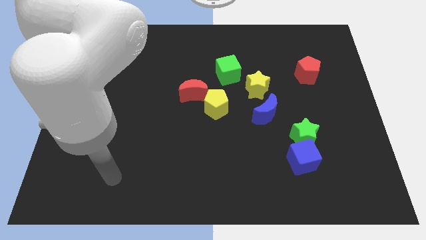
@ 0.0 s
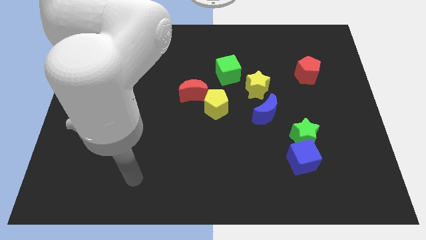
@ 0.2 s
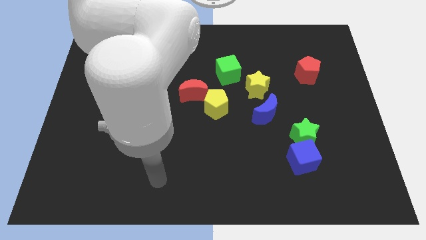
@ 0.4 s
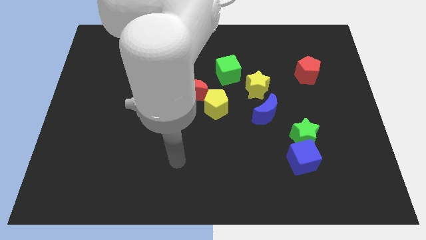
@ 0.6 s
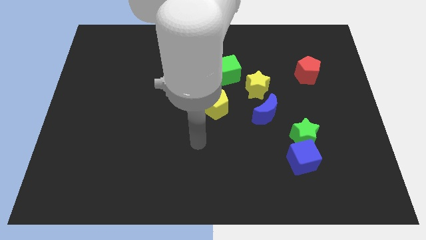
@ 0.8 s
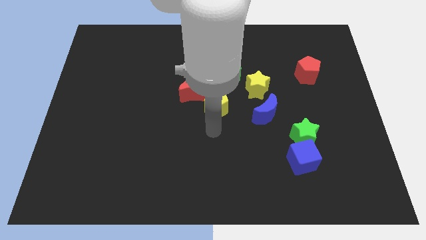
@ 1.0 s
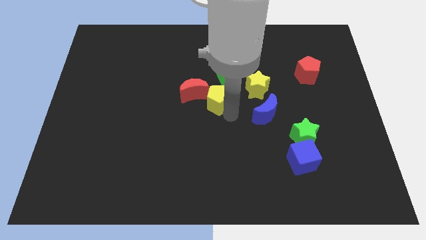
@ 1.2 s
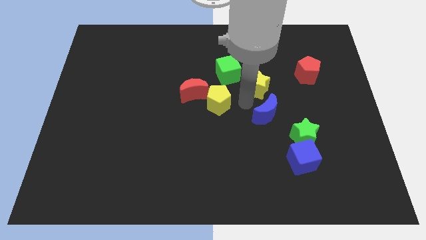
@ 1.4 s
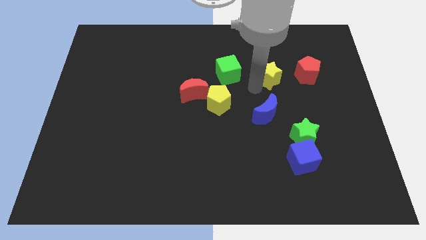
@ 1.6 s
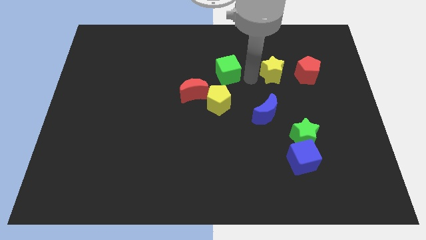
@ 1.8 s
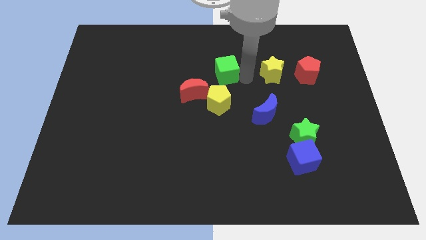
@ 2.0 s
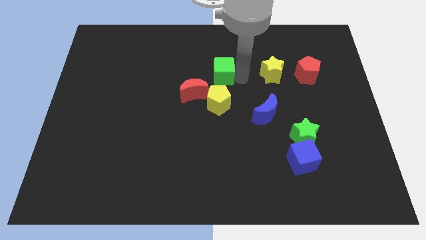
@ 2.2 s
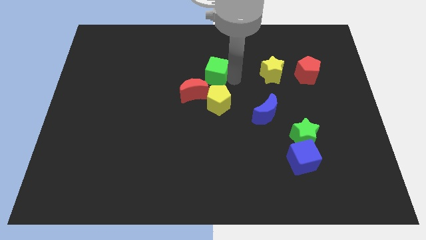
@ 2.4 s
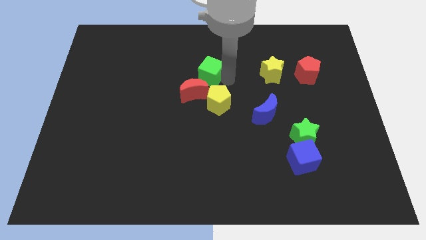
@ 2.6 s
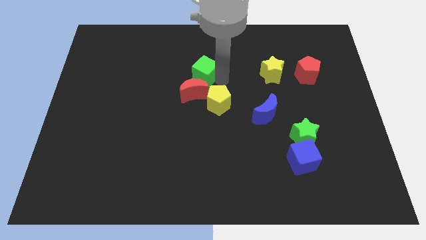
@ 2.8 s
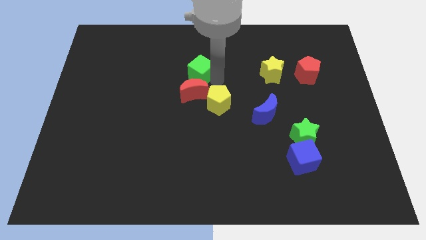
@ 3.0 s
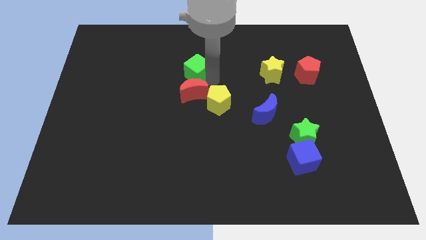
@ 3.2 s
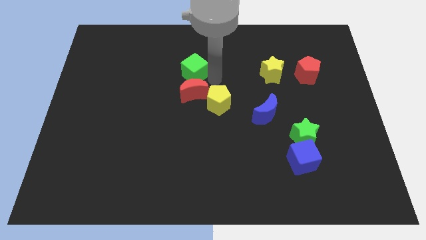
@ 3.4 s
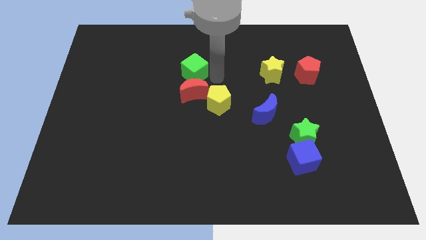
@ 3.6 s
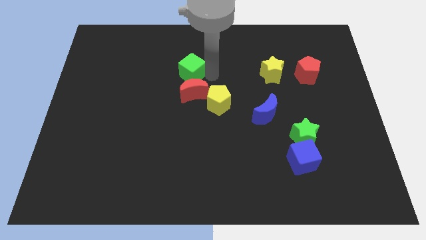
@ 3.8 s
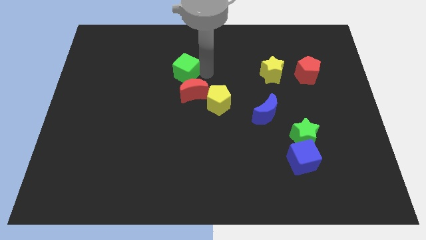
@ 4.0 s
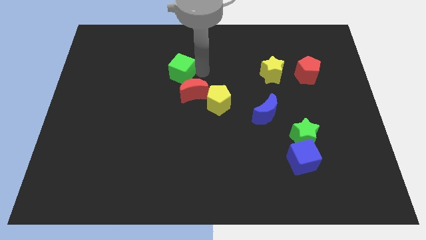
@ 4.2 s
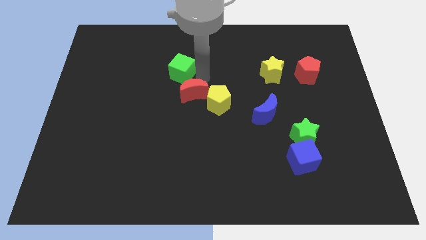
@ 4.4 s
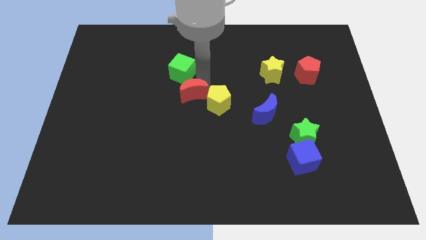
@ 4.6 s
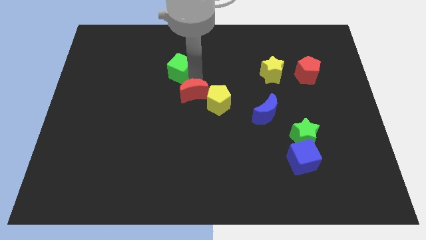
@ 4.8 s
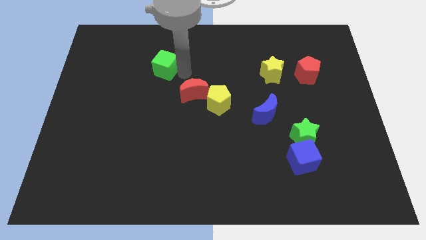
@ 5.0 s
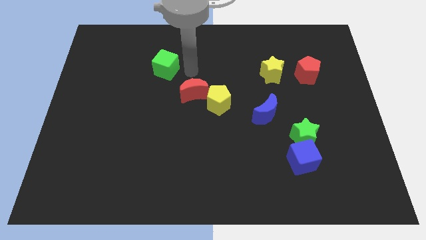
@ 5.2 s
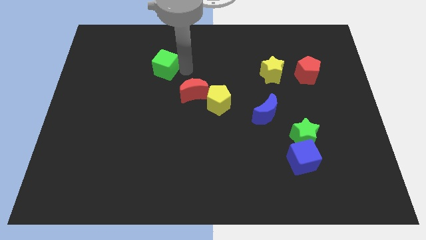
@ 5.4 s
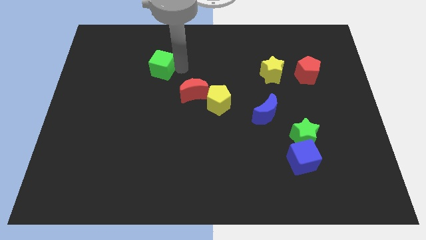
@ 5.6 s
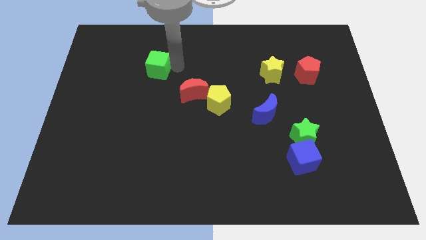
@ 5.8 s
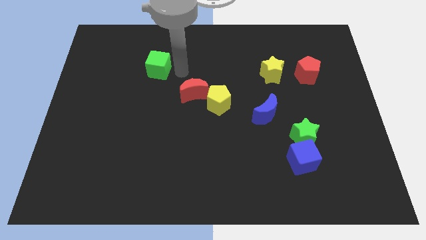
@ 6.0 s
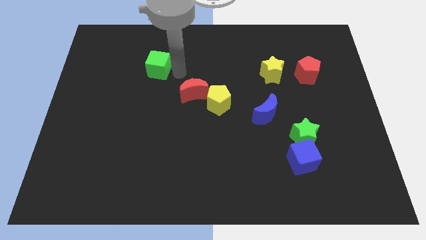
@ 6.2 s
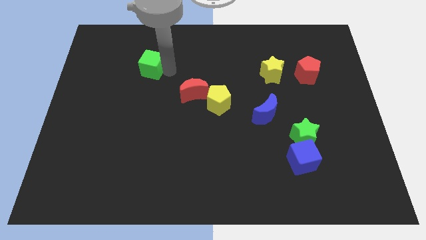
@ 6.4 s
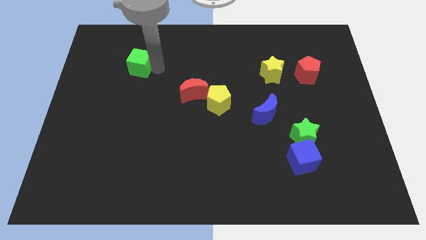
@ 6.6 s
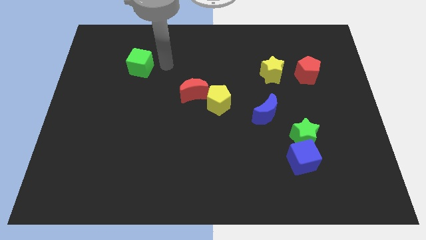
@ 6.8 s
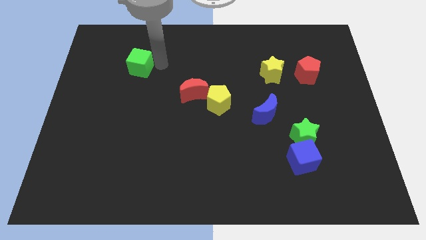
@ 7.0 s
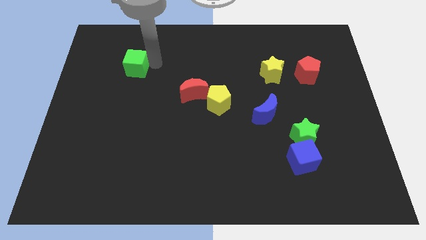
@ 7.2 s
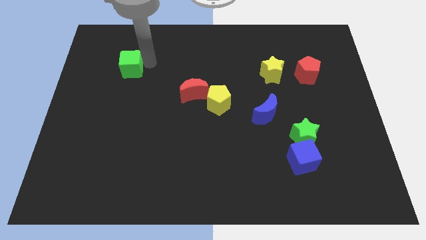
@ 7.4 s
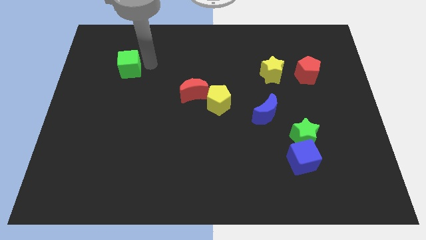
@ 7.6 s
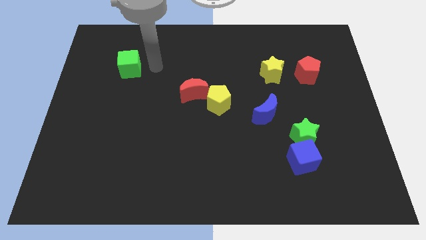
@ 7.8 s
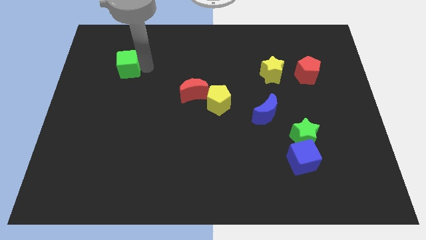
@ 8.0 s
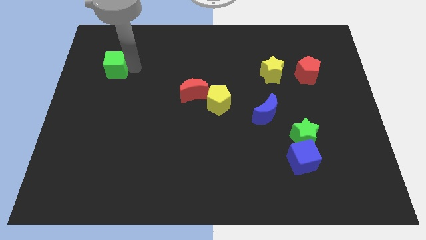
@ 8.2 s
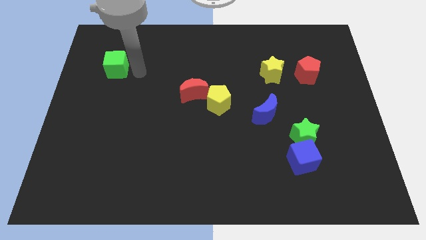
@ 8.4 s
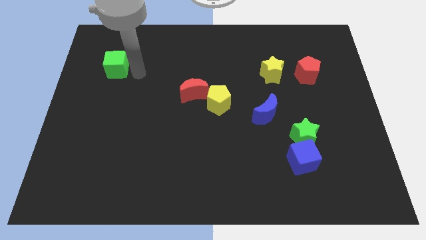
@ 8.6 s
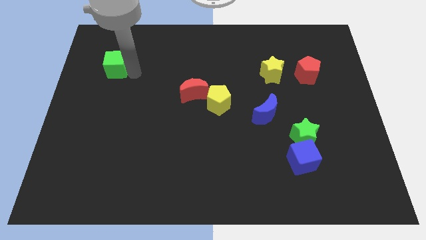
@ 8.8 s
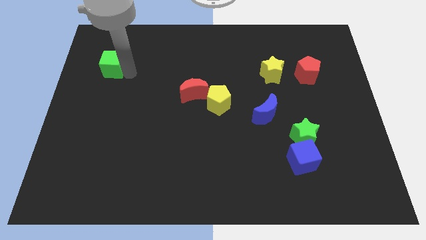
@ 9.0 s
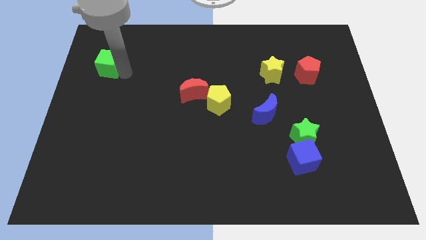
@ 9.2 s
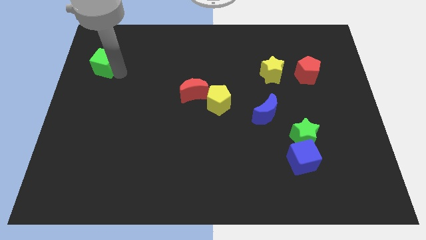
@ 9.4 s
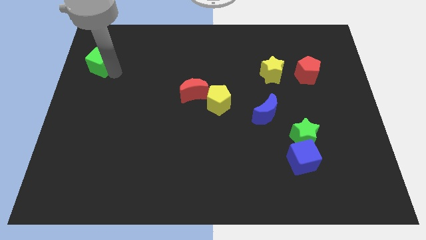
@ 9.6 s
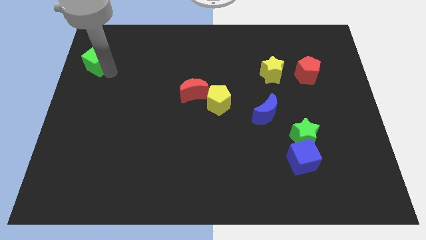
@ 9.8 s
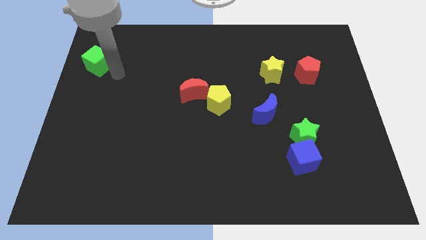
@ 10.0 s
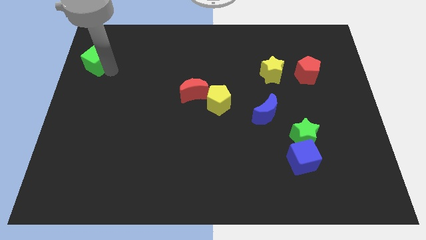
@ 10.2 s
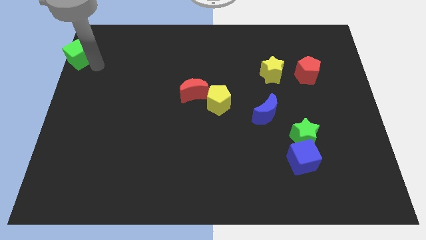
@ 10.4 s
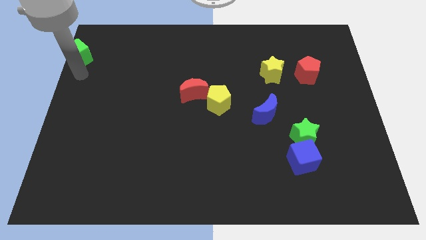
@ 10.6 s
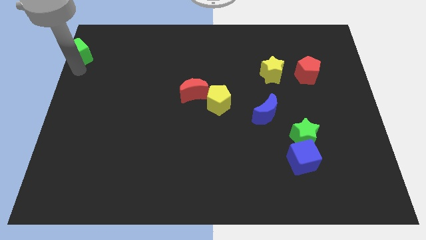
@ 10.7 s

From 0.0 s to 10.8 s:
slide the green cube to the top left
